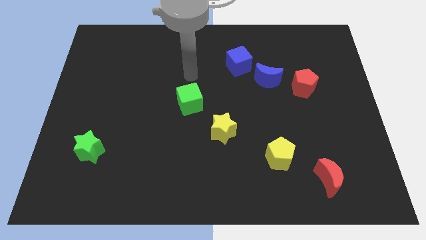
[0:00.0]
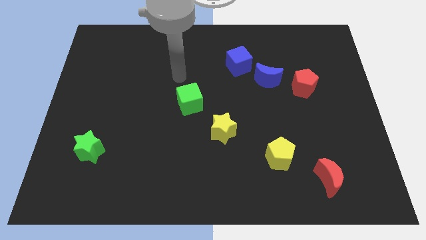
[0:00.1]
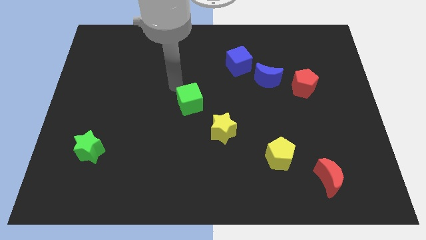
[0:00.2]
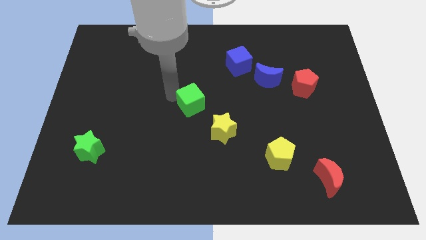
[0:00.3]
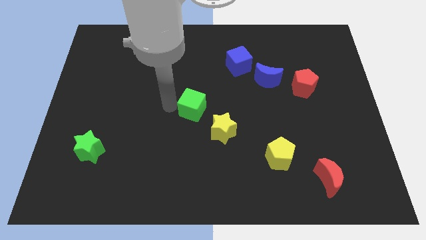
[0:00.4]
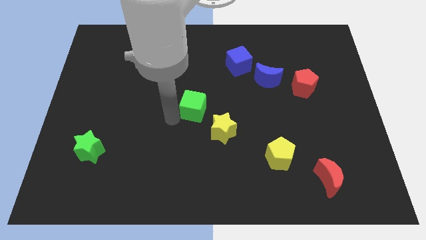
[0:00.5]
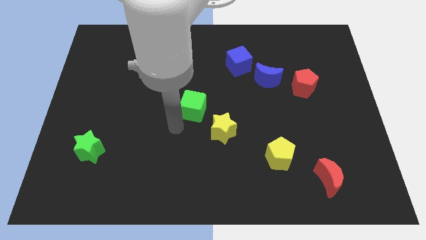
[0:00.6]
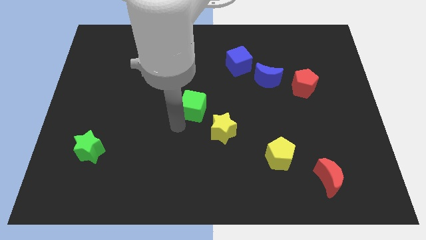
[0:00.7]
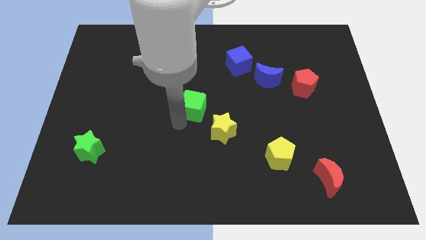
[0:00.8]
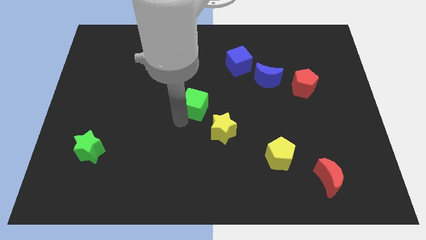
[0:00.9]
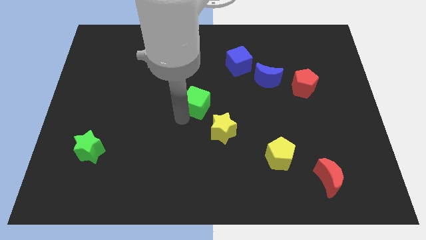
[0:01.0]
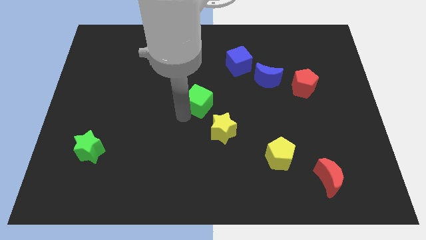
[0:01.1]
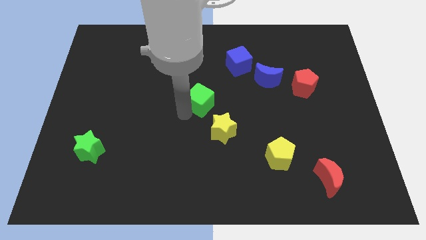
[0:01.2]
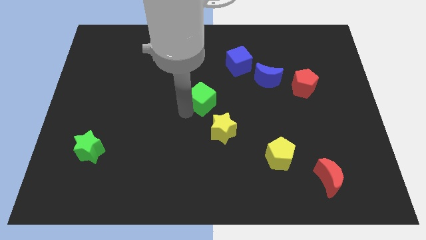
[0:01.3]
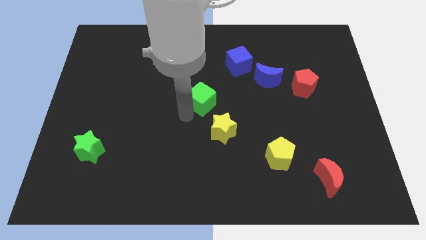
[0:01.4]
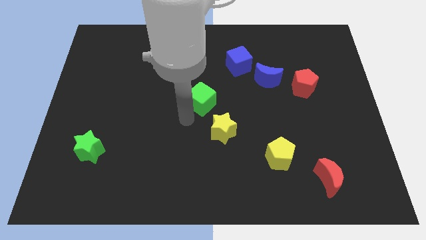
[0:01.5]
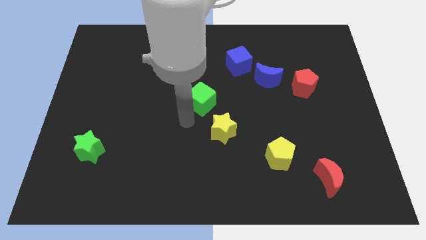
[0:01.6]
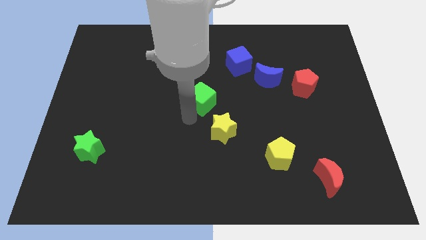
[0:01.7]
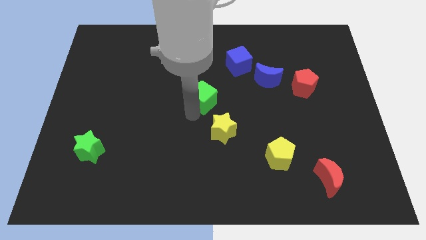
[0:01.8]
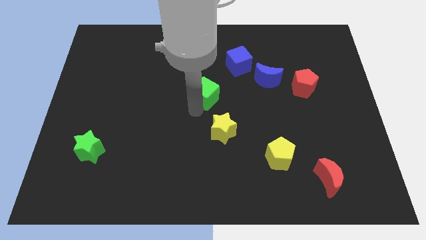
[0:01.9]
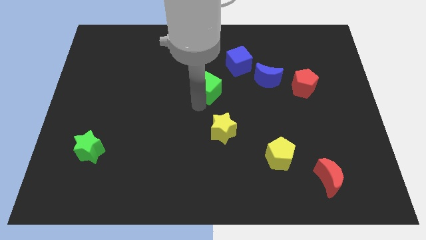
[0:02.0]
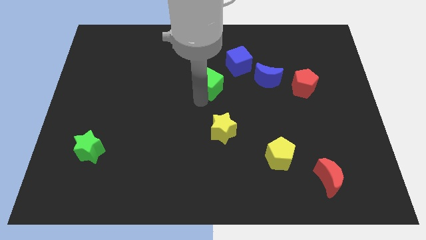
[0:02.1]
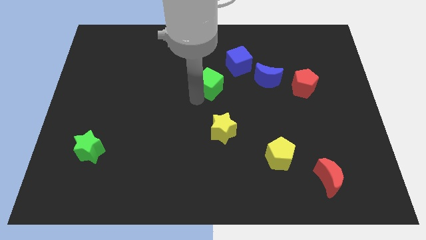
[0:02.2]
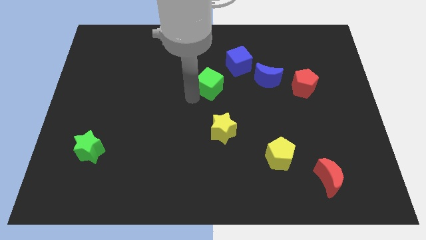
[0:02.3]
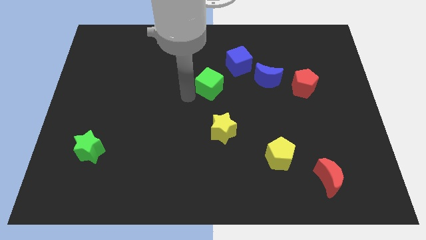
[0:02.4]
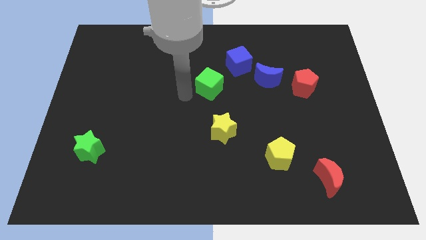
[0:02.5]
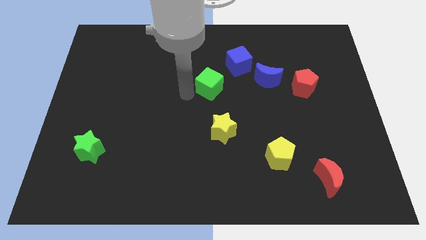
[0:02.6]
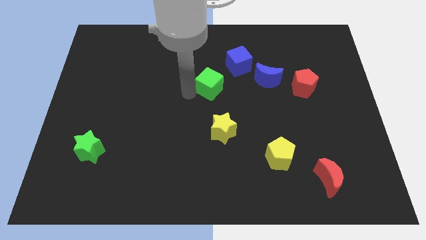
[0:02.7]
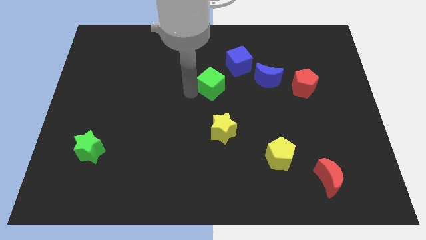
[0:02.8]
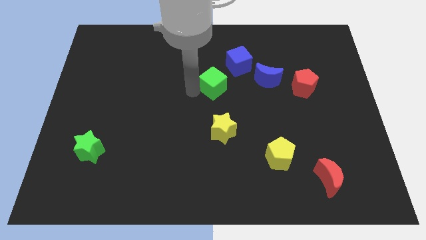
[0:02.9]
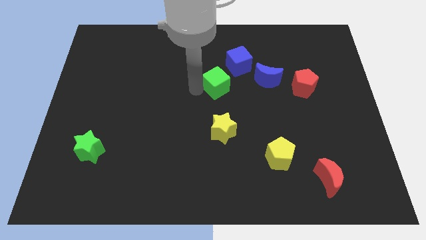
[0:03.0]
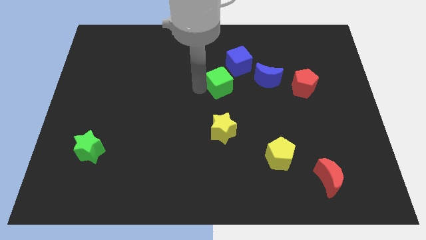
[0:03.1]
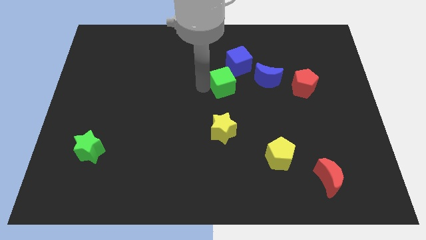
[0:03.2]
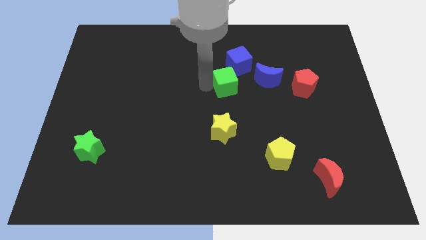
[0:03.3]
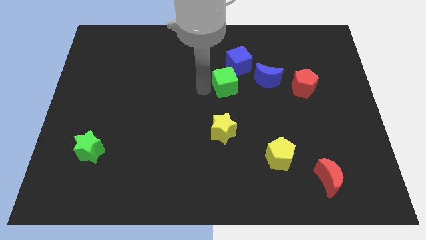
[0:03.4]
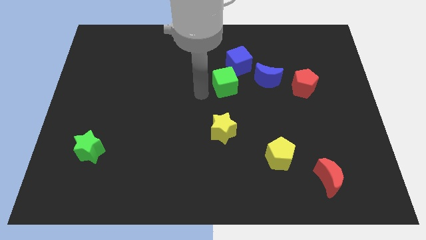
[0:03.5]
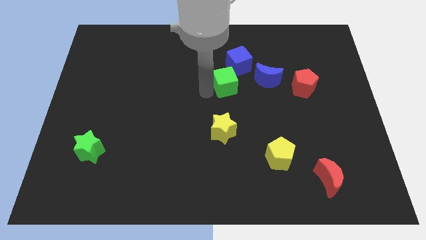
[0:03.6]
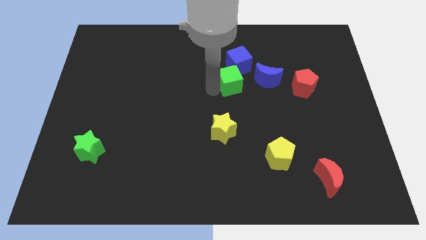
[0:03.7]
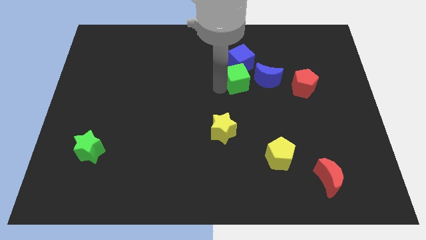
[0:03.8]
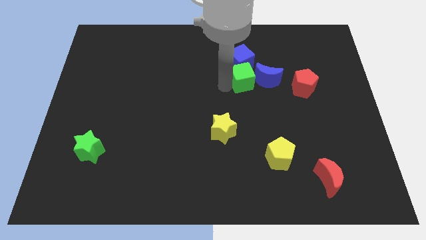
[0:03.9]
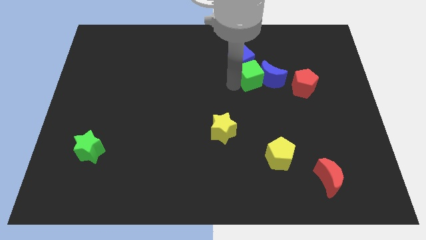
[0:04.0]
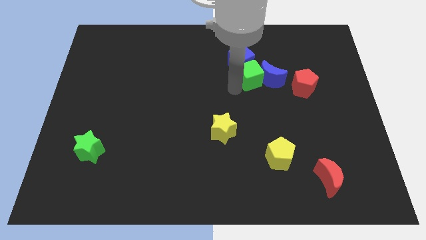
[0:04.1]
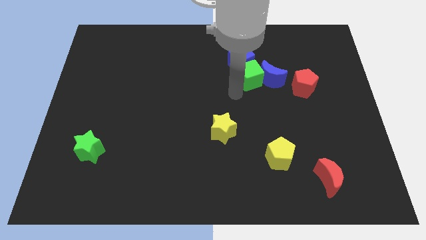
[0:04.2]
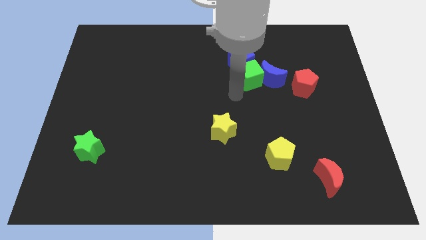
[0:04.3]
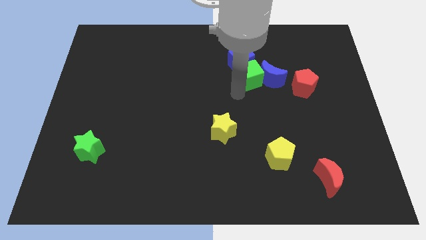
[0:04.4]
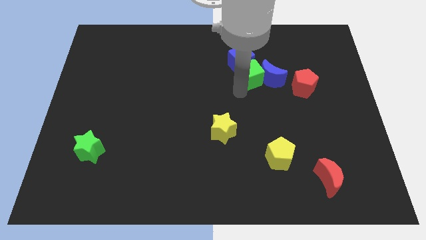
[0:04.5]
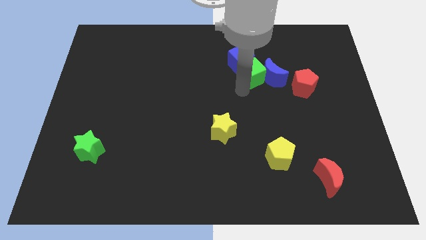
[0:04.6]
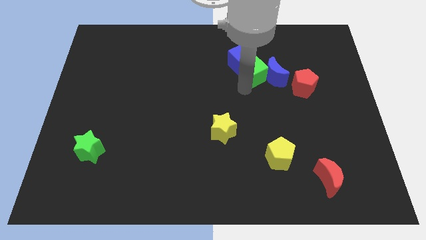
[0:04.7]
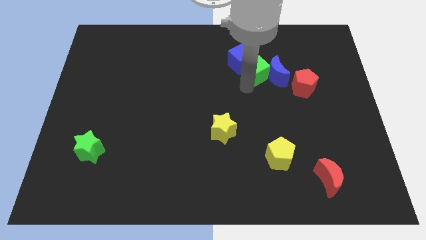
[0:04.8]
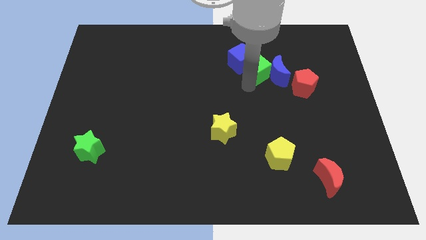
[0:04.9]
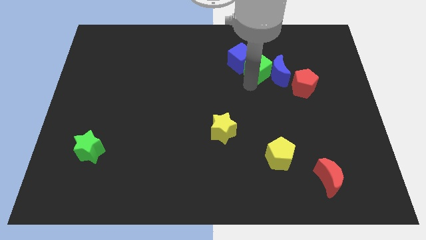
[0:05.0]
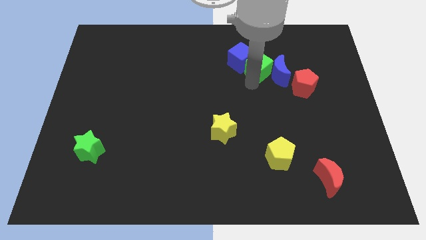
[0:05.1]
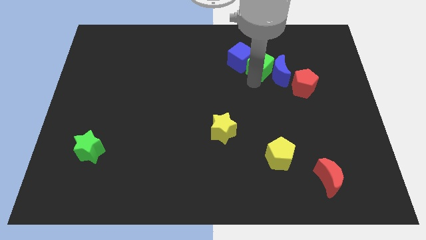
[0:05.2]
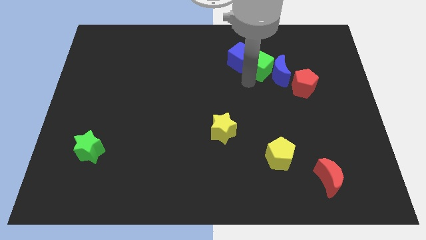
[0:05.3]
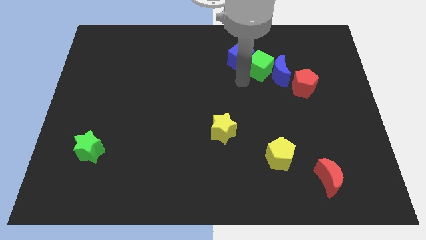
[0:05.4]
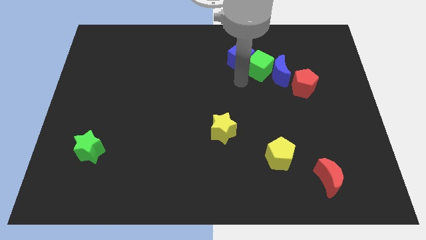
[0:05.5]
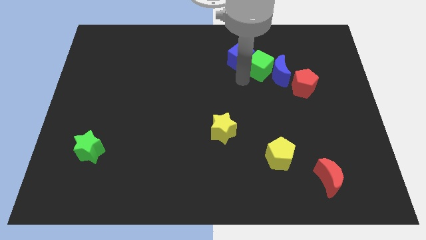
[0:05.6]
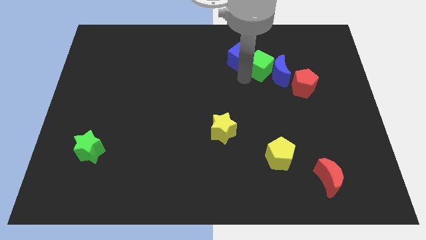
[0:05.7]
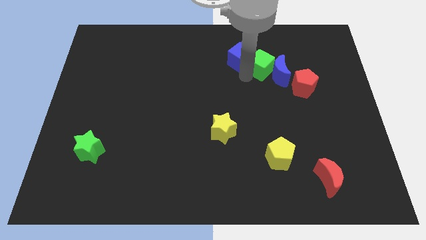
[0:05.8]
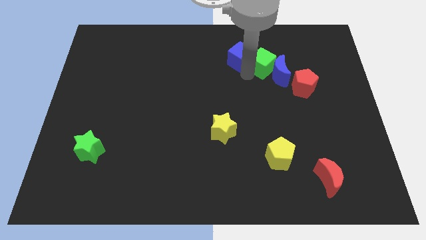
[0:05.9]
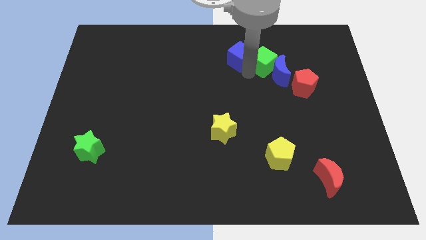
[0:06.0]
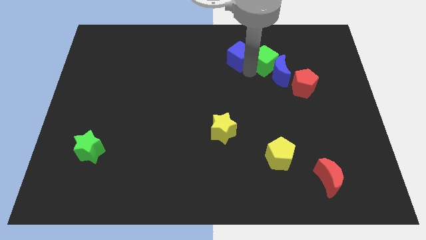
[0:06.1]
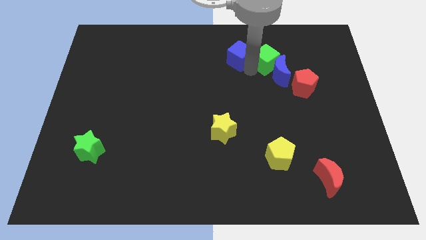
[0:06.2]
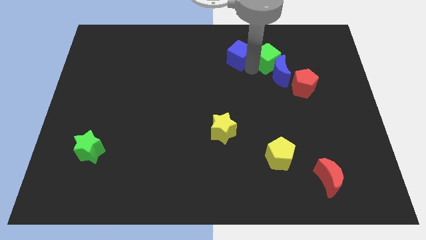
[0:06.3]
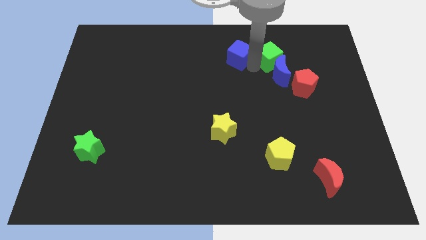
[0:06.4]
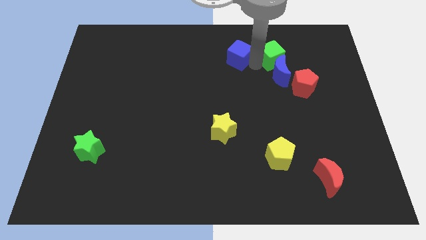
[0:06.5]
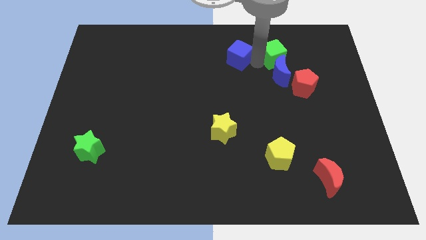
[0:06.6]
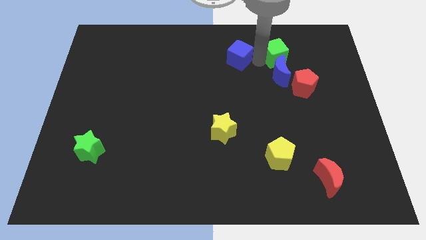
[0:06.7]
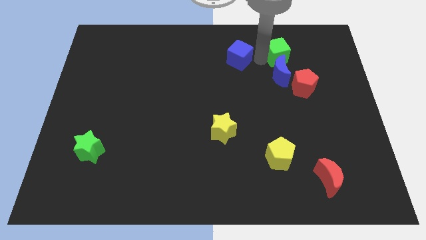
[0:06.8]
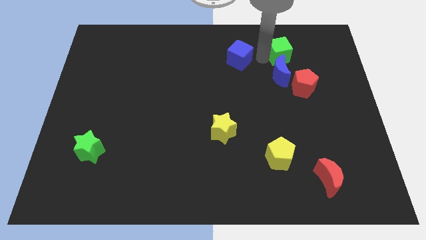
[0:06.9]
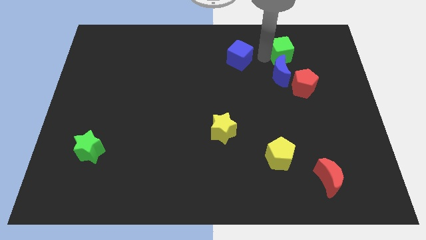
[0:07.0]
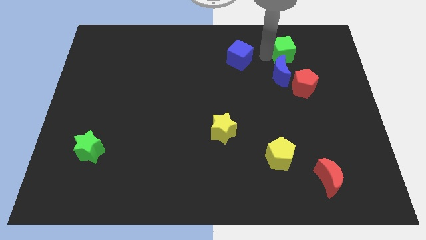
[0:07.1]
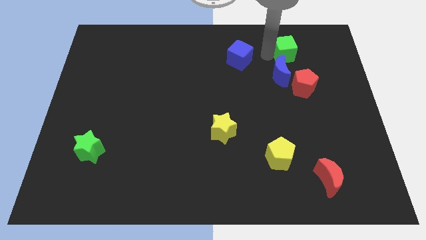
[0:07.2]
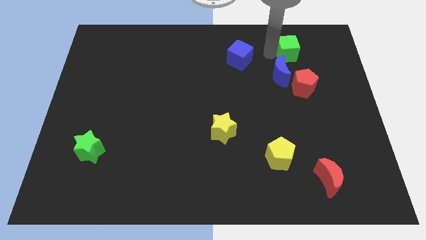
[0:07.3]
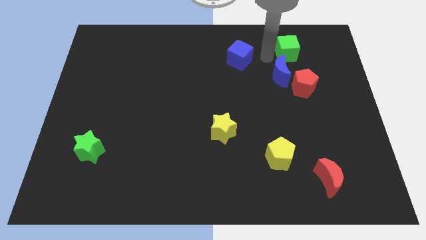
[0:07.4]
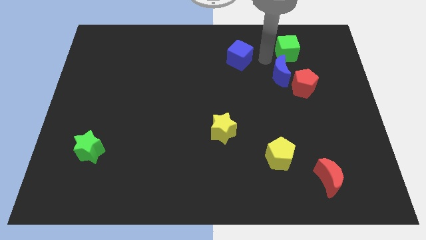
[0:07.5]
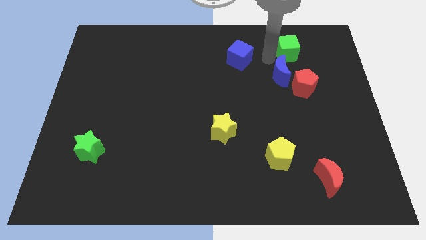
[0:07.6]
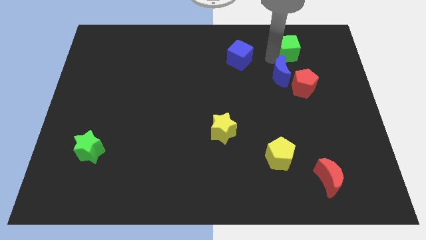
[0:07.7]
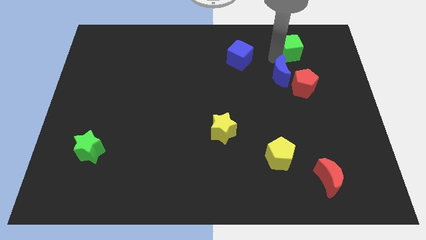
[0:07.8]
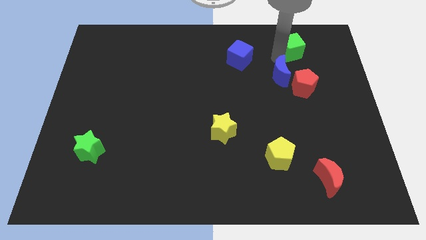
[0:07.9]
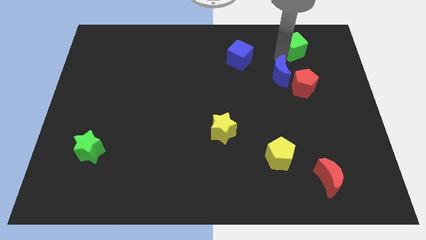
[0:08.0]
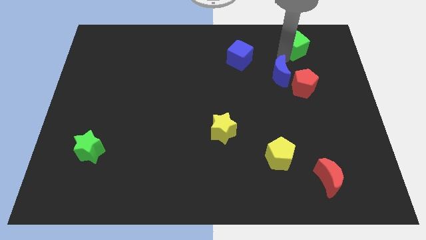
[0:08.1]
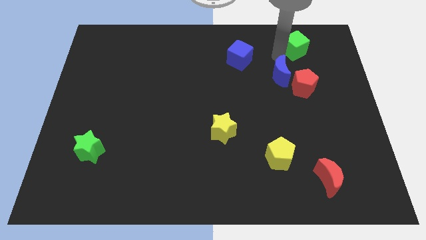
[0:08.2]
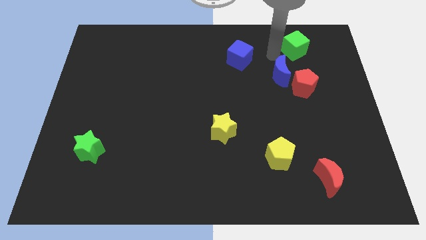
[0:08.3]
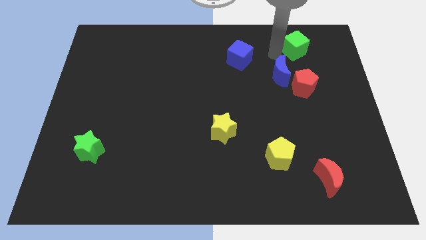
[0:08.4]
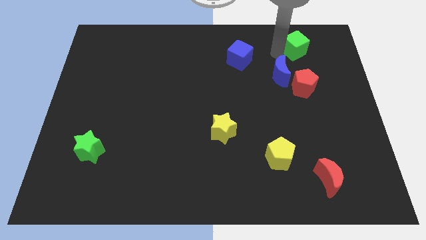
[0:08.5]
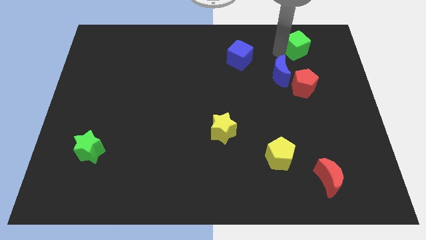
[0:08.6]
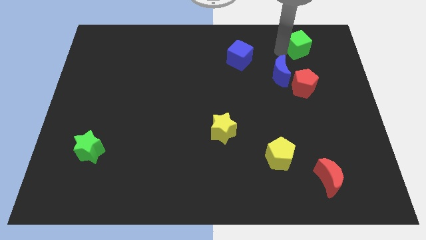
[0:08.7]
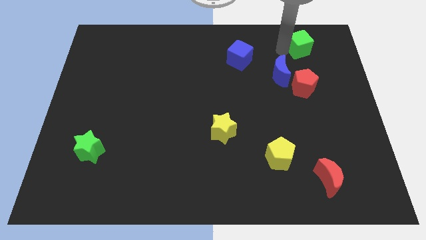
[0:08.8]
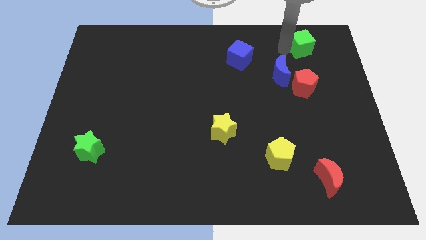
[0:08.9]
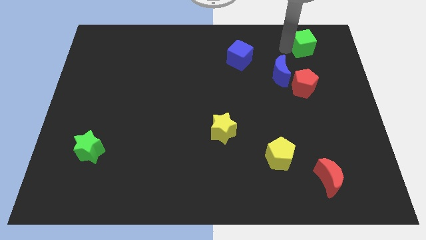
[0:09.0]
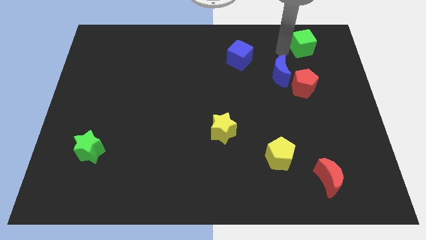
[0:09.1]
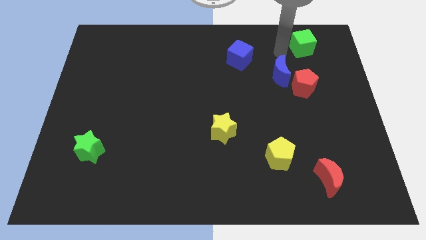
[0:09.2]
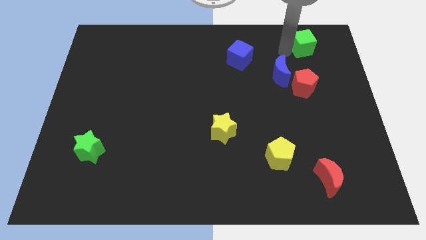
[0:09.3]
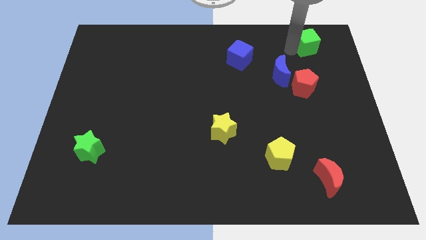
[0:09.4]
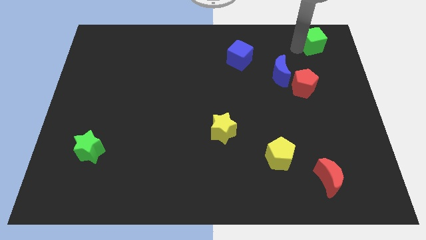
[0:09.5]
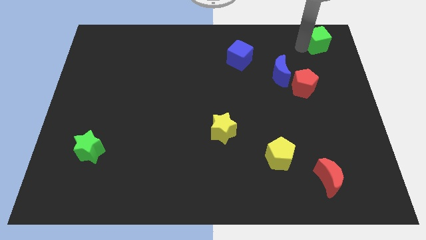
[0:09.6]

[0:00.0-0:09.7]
push the green cube to the top right
